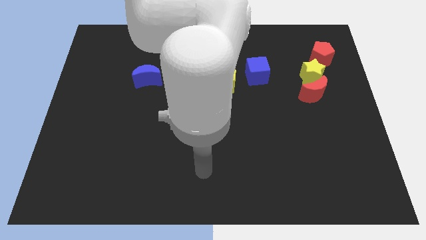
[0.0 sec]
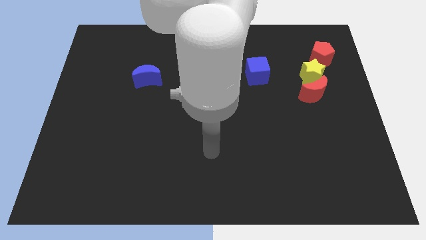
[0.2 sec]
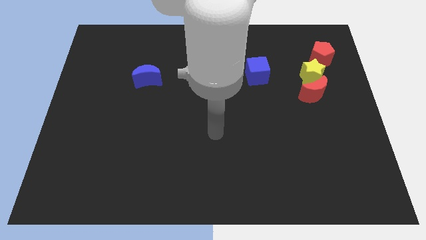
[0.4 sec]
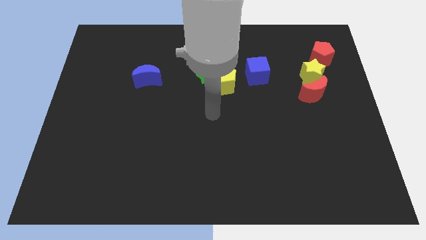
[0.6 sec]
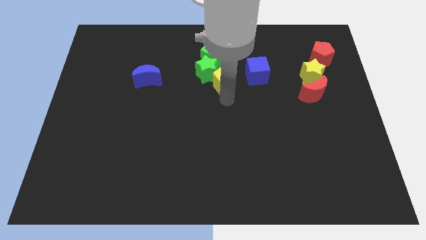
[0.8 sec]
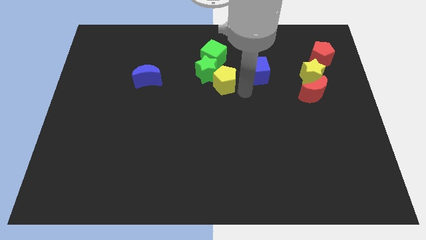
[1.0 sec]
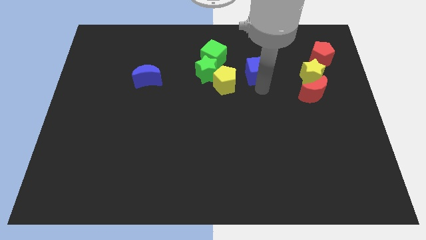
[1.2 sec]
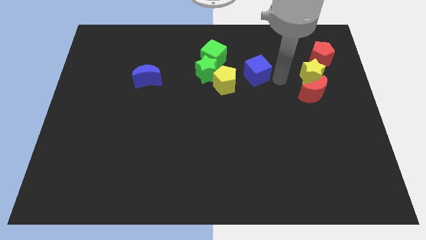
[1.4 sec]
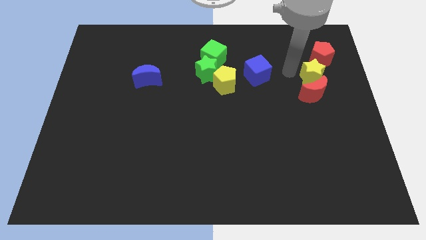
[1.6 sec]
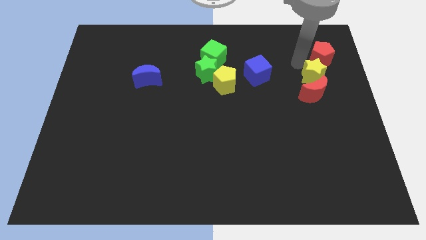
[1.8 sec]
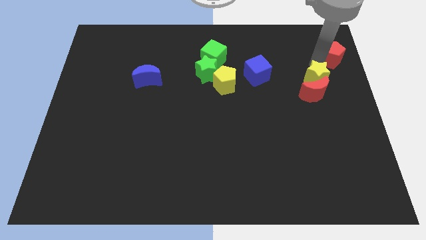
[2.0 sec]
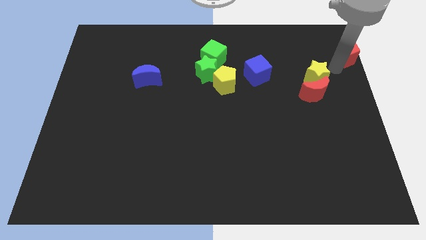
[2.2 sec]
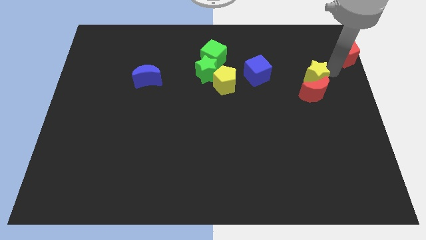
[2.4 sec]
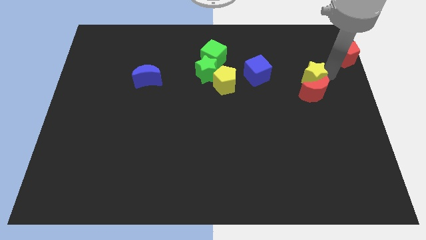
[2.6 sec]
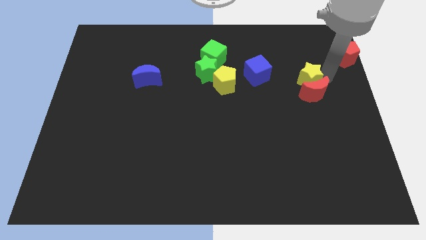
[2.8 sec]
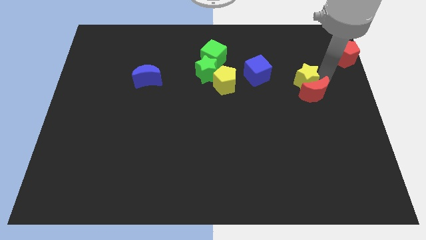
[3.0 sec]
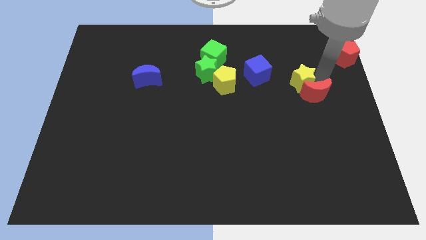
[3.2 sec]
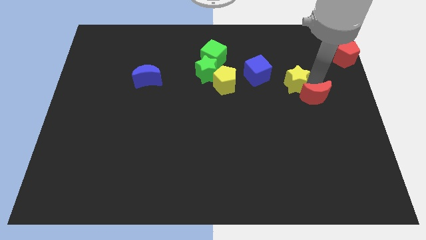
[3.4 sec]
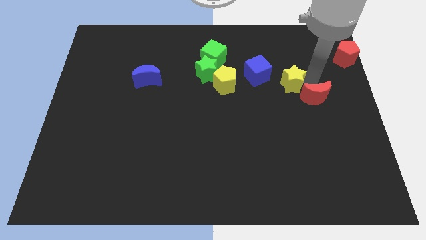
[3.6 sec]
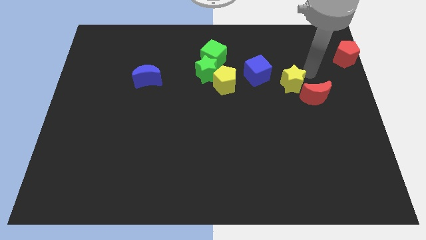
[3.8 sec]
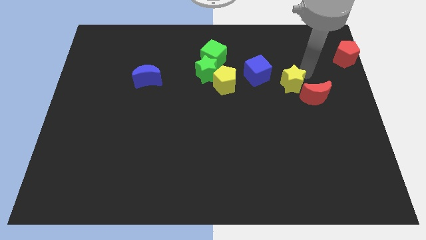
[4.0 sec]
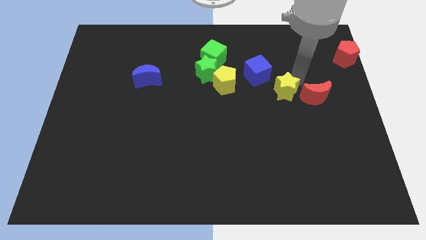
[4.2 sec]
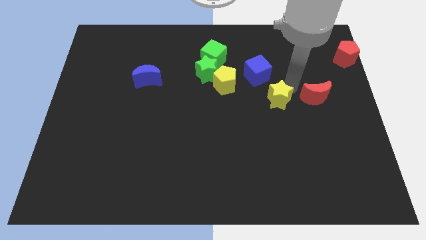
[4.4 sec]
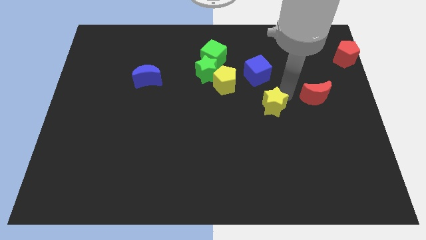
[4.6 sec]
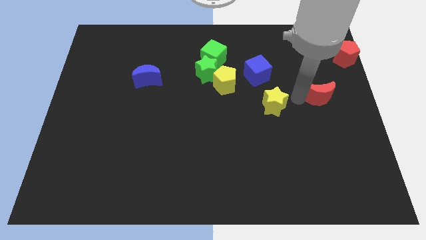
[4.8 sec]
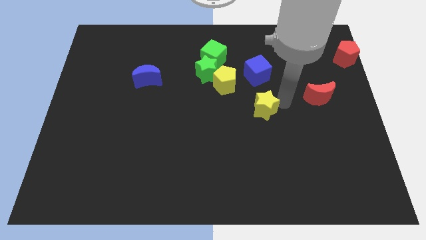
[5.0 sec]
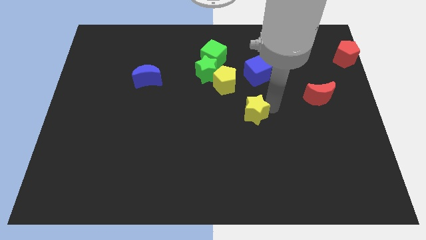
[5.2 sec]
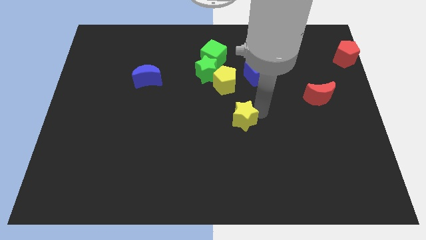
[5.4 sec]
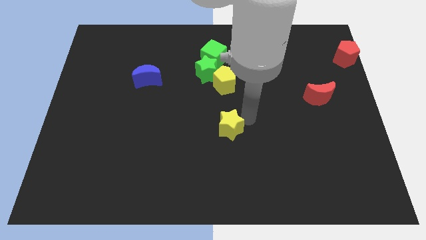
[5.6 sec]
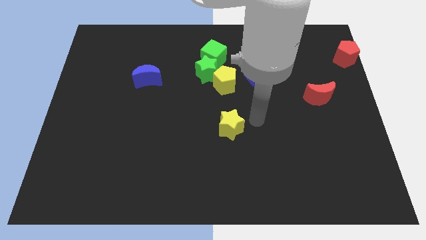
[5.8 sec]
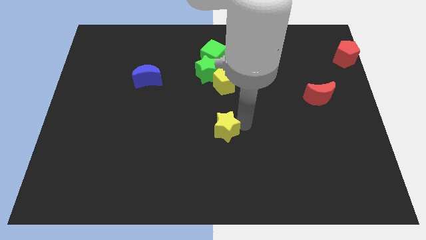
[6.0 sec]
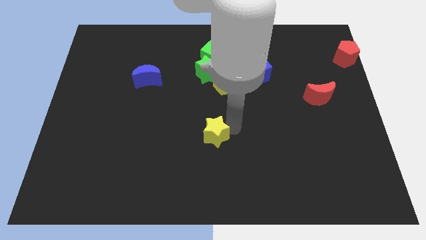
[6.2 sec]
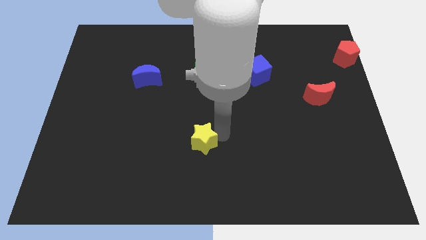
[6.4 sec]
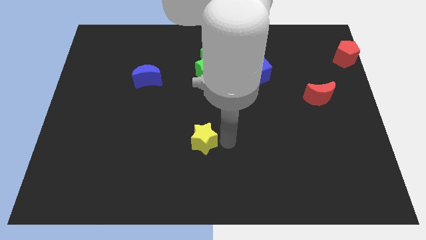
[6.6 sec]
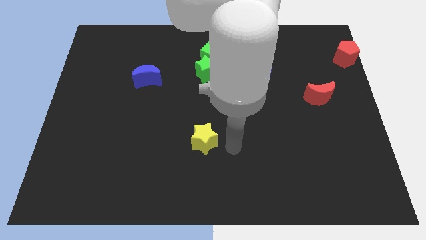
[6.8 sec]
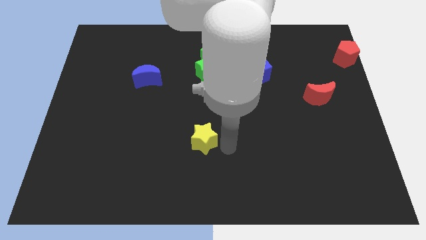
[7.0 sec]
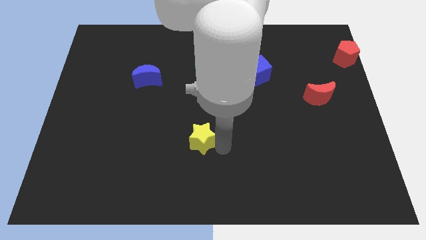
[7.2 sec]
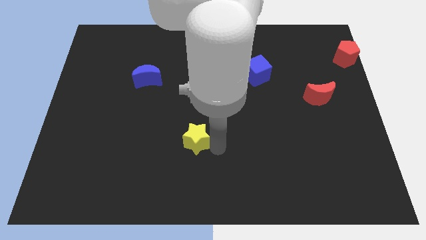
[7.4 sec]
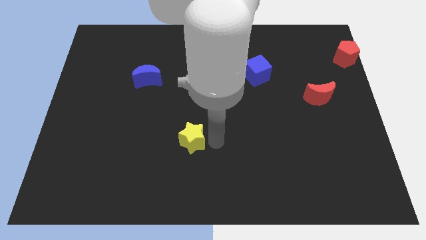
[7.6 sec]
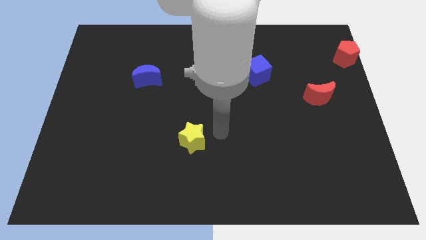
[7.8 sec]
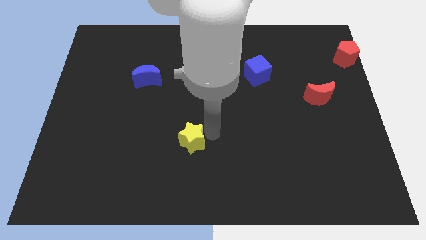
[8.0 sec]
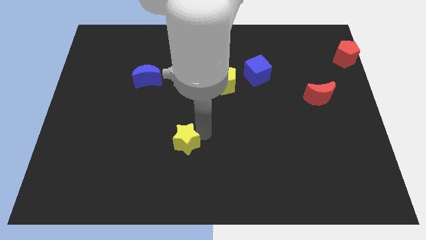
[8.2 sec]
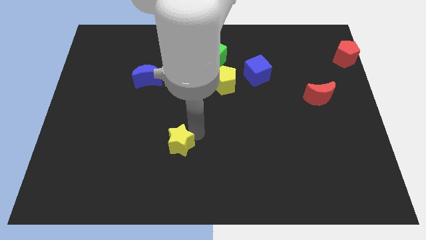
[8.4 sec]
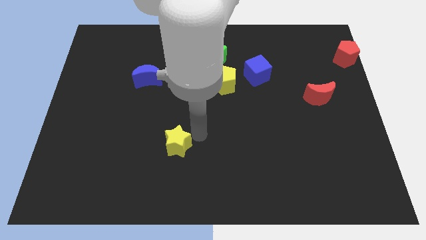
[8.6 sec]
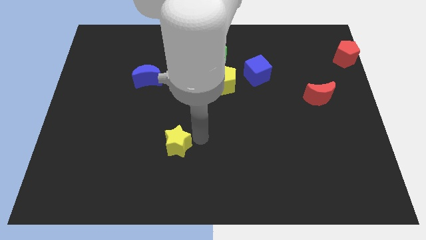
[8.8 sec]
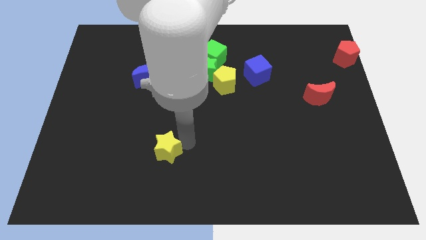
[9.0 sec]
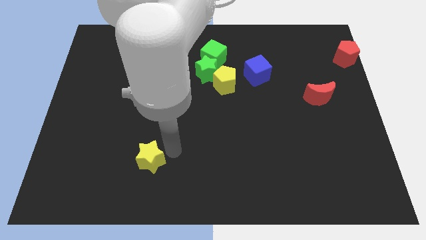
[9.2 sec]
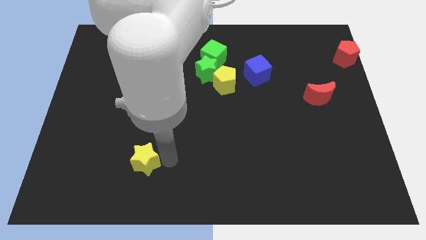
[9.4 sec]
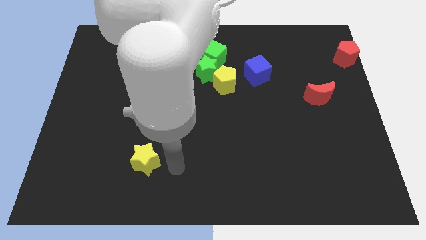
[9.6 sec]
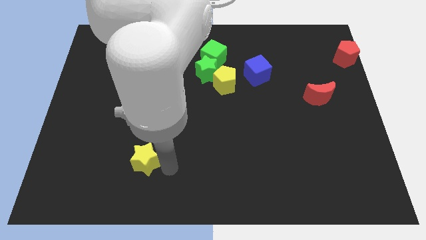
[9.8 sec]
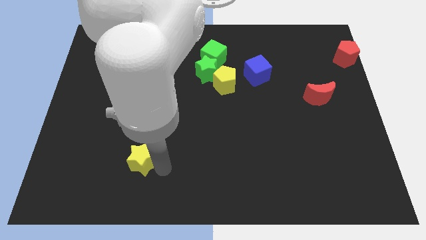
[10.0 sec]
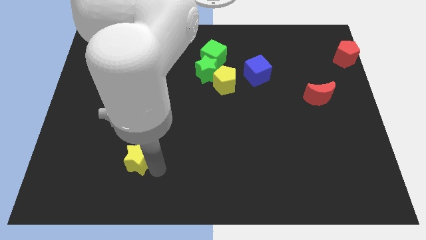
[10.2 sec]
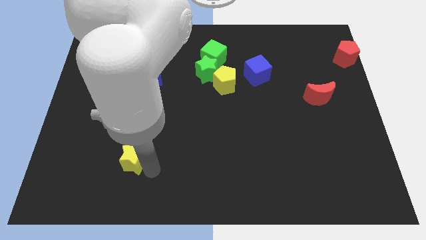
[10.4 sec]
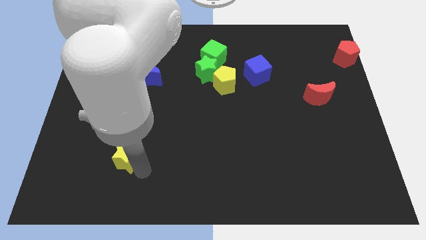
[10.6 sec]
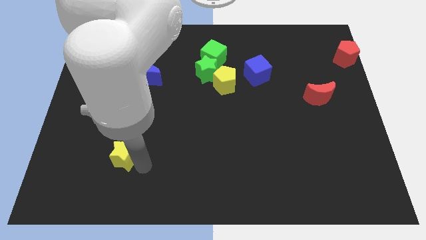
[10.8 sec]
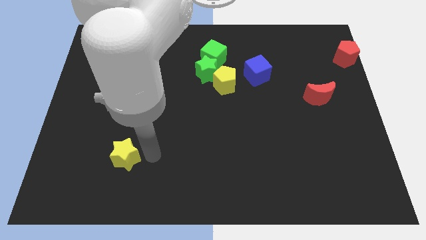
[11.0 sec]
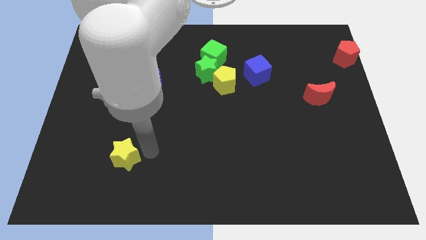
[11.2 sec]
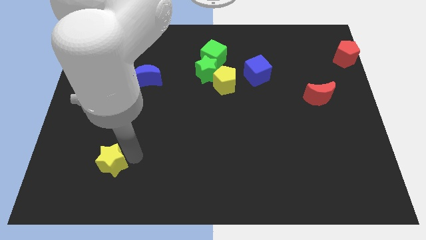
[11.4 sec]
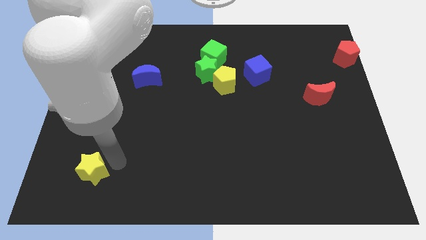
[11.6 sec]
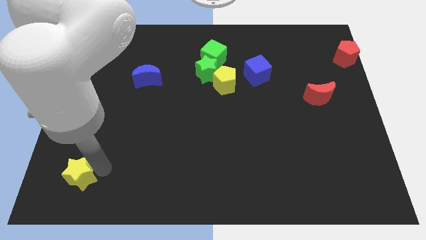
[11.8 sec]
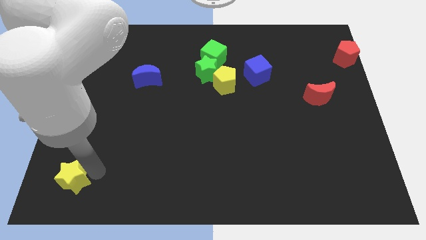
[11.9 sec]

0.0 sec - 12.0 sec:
slide the yellow star to the lower left corner

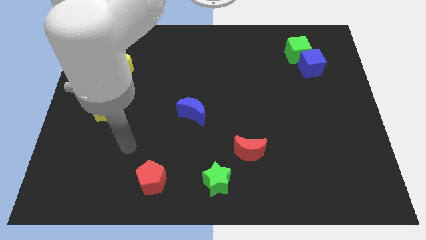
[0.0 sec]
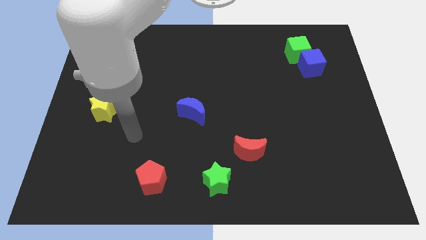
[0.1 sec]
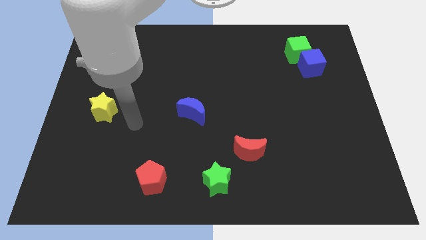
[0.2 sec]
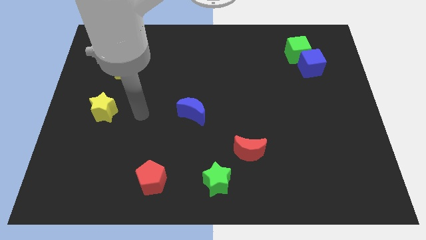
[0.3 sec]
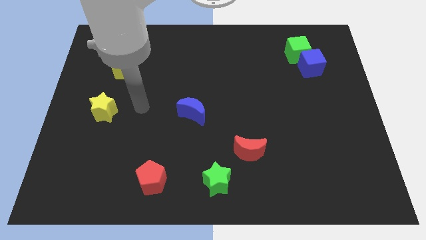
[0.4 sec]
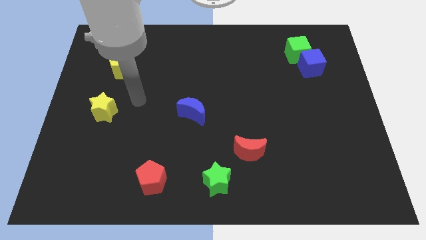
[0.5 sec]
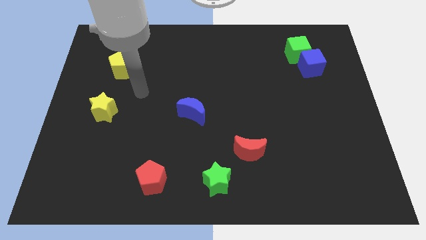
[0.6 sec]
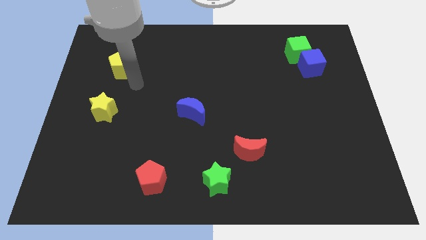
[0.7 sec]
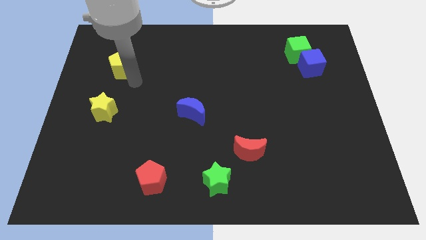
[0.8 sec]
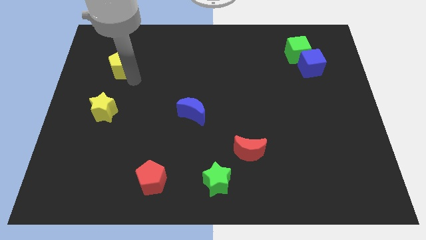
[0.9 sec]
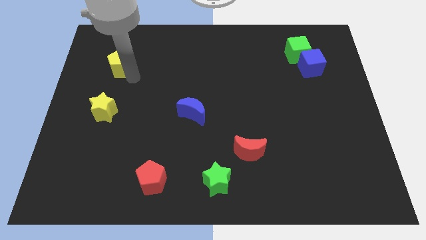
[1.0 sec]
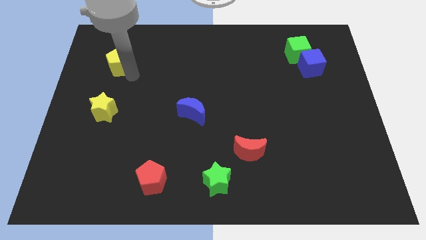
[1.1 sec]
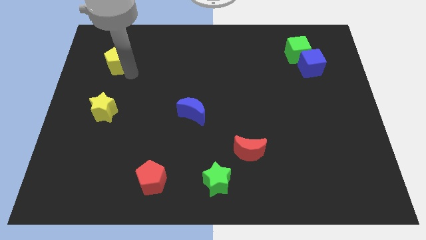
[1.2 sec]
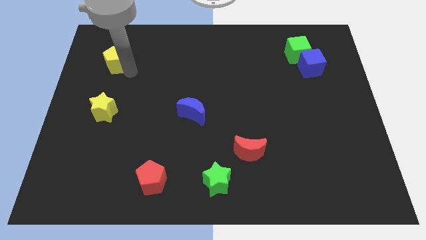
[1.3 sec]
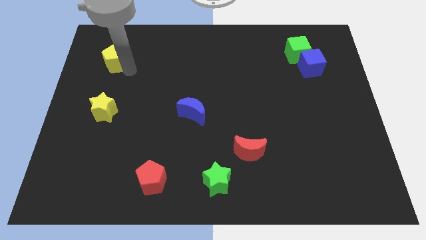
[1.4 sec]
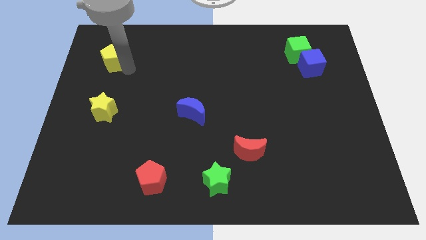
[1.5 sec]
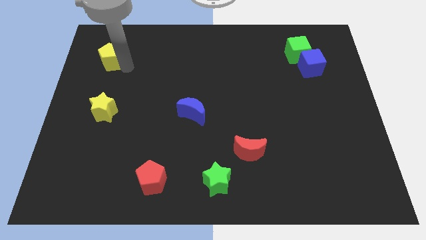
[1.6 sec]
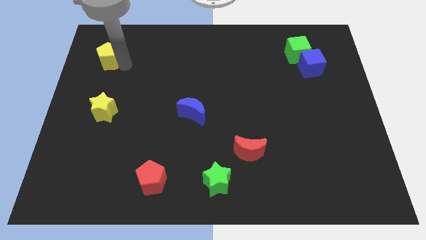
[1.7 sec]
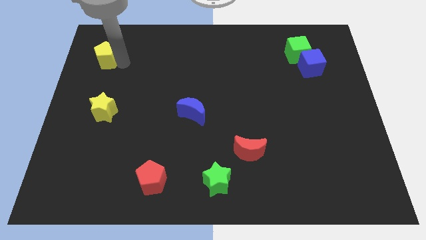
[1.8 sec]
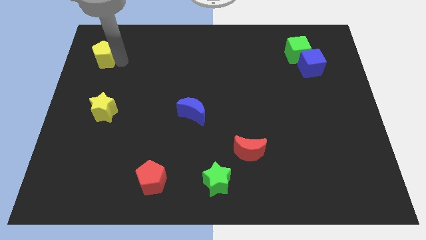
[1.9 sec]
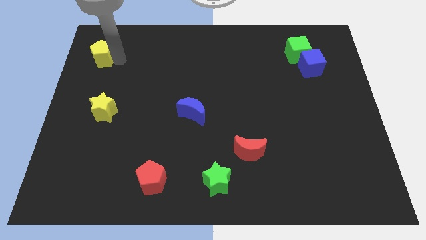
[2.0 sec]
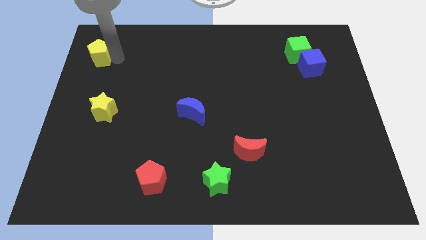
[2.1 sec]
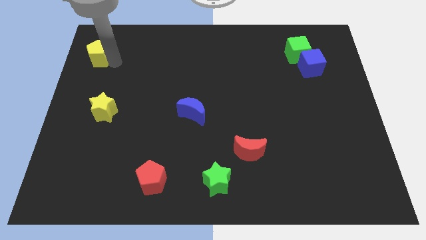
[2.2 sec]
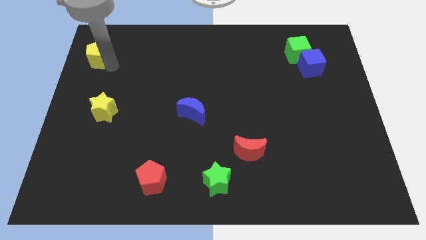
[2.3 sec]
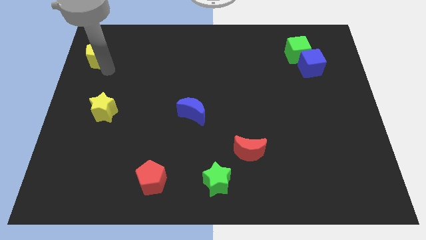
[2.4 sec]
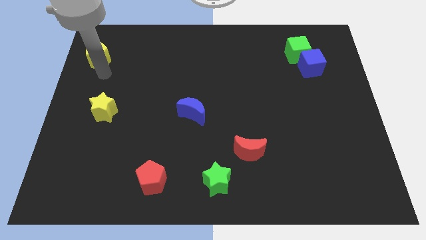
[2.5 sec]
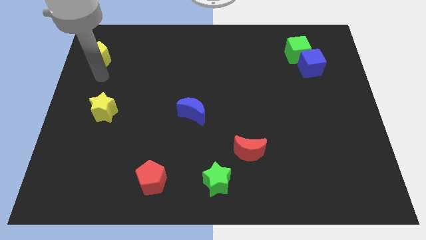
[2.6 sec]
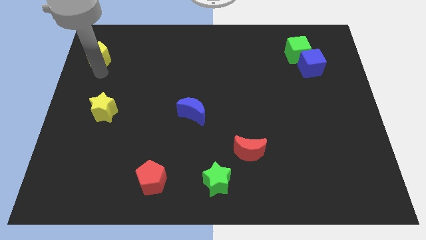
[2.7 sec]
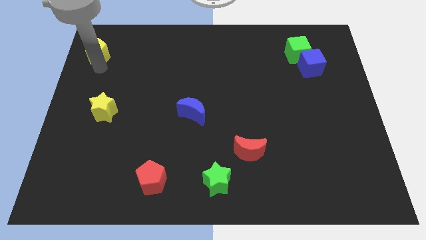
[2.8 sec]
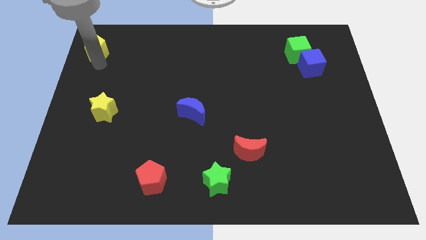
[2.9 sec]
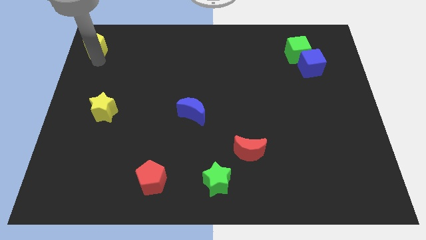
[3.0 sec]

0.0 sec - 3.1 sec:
push the yellow pentagon to the top left corner
